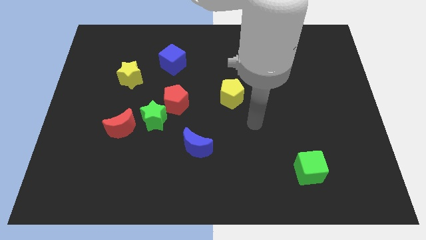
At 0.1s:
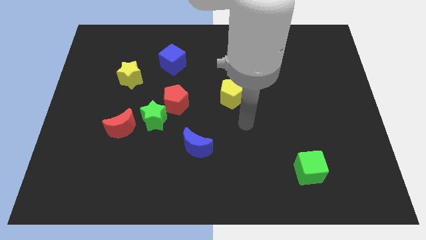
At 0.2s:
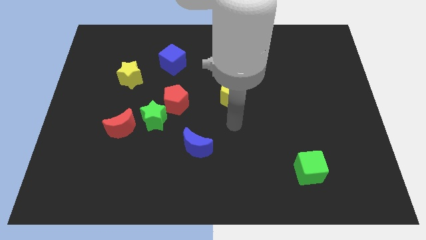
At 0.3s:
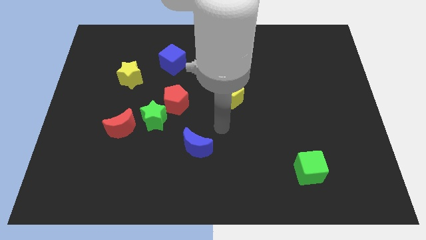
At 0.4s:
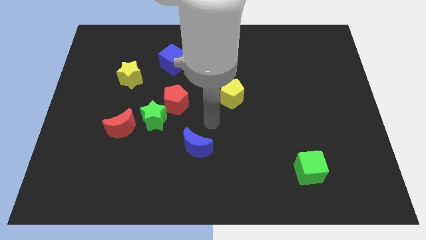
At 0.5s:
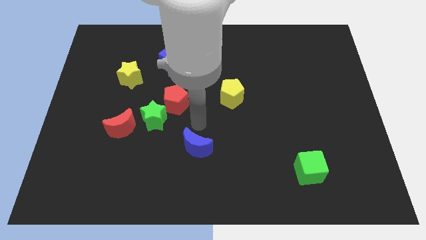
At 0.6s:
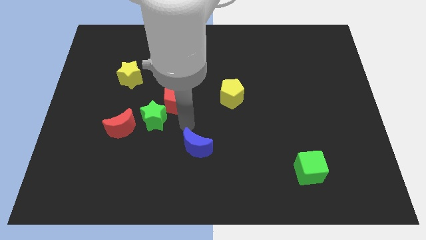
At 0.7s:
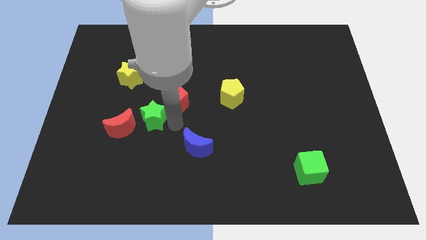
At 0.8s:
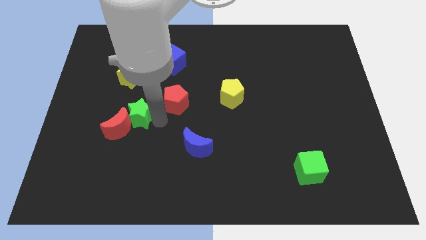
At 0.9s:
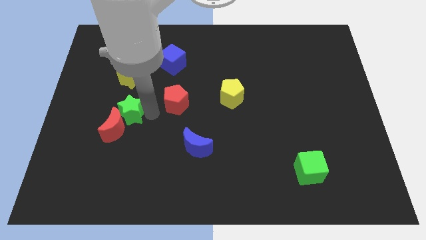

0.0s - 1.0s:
pull the red pentagon apart from the green star

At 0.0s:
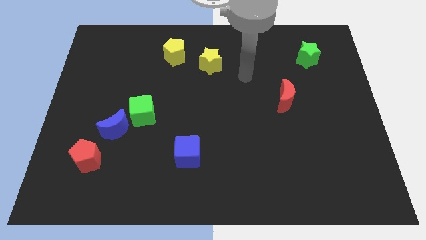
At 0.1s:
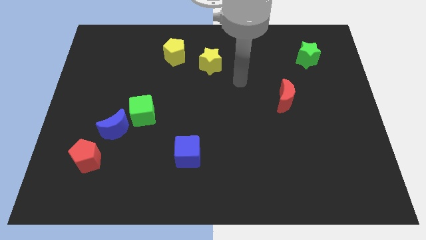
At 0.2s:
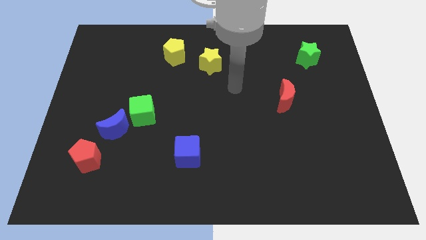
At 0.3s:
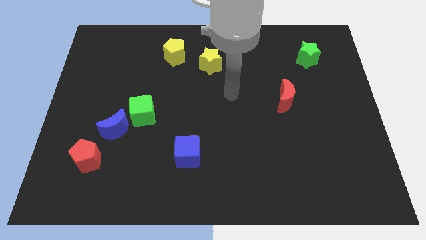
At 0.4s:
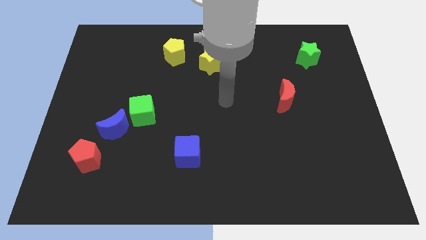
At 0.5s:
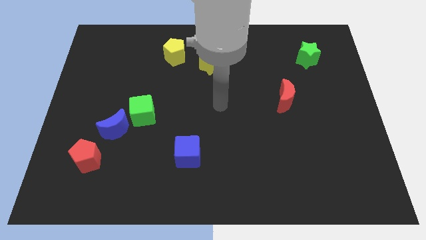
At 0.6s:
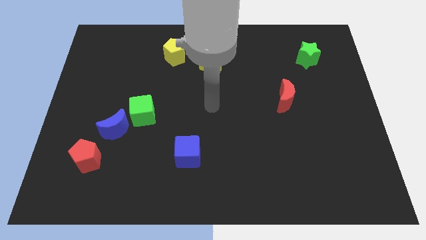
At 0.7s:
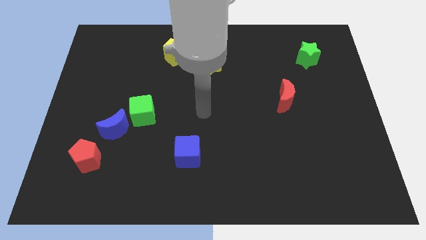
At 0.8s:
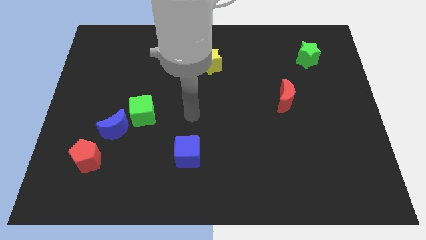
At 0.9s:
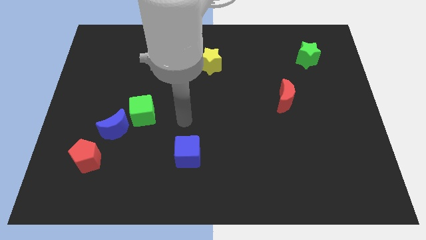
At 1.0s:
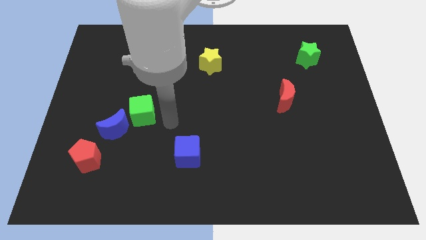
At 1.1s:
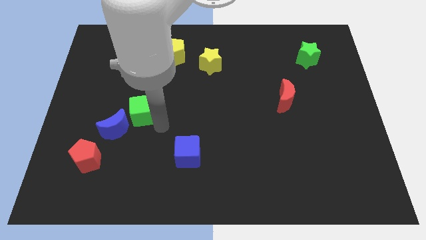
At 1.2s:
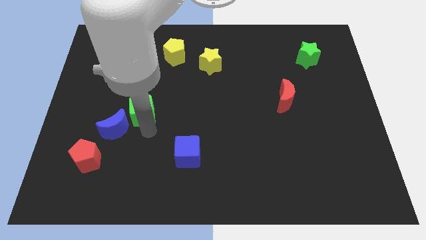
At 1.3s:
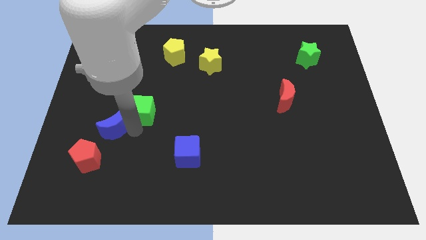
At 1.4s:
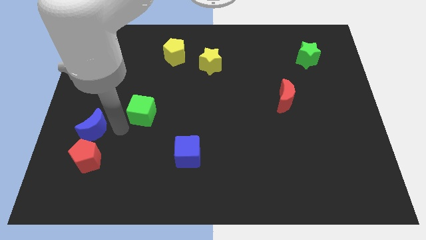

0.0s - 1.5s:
move the green cube away from the blue moon

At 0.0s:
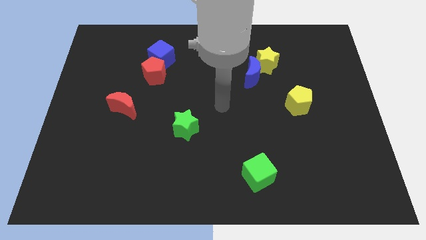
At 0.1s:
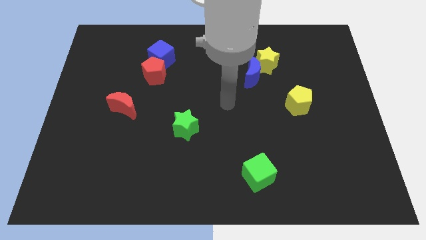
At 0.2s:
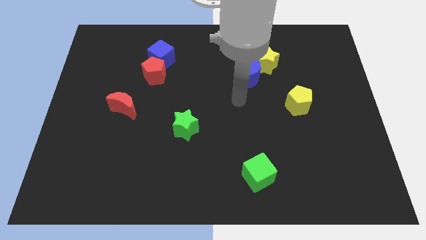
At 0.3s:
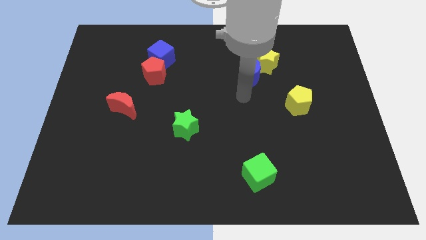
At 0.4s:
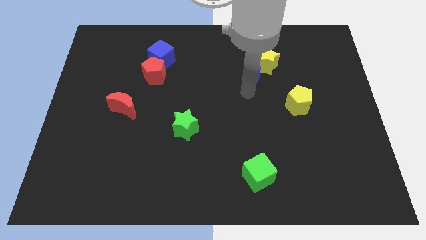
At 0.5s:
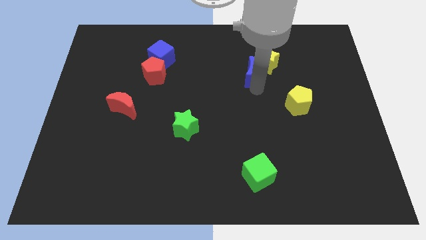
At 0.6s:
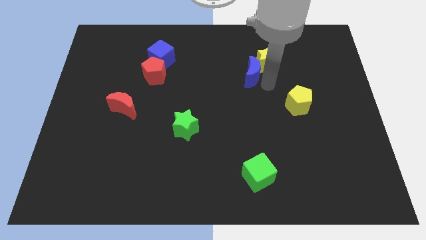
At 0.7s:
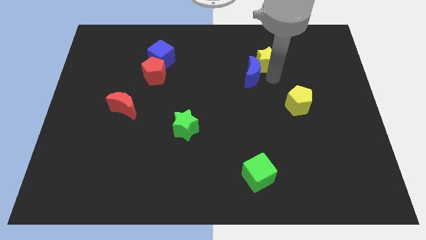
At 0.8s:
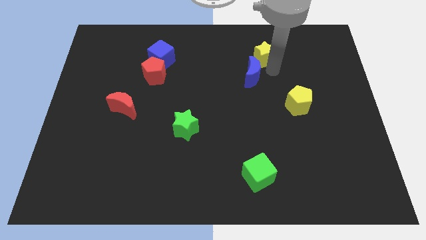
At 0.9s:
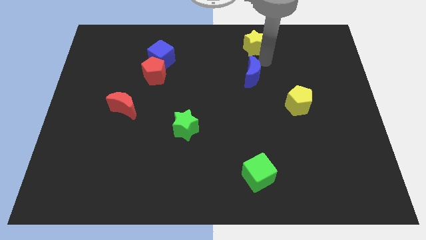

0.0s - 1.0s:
move the blue moon away from the yellow star

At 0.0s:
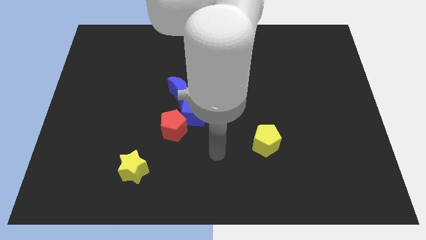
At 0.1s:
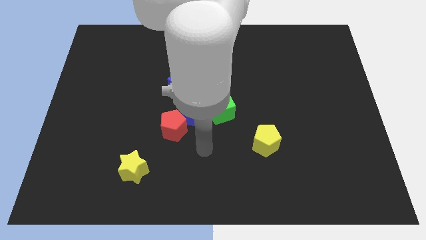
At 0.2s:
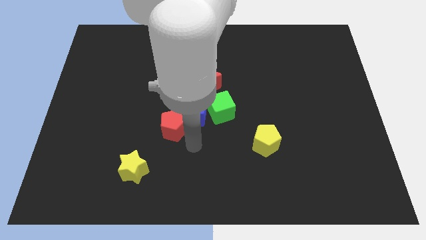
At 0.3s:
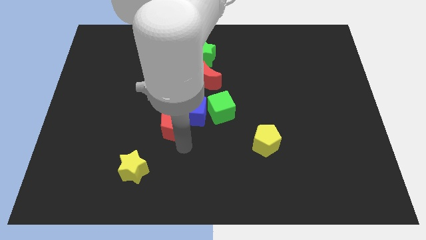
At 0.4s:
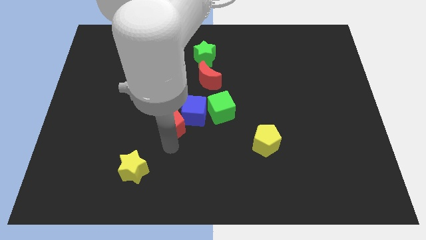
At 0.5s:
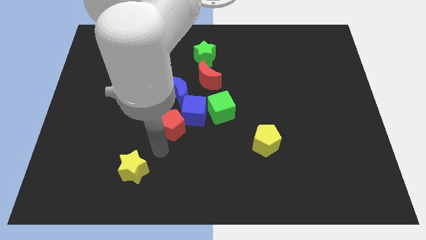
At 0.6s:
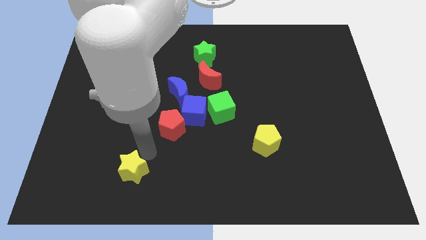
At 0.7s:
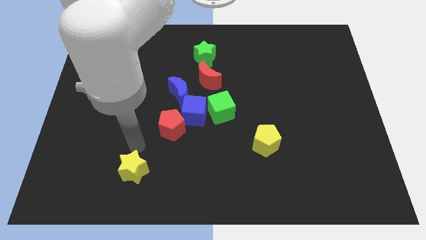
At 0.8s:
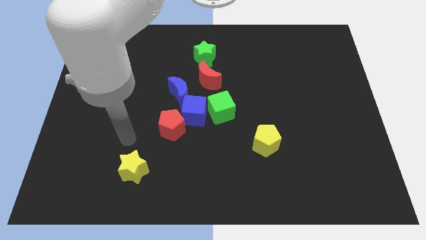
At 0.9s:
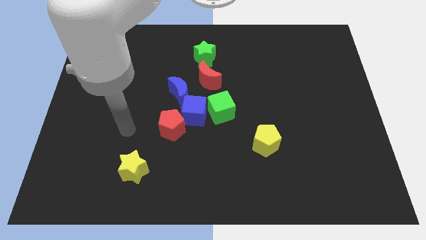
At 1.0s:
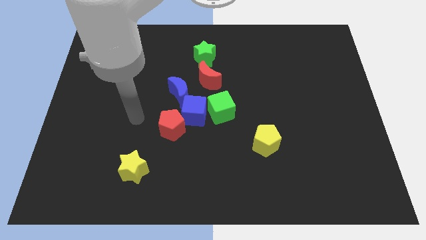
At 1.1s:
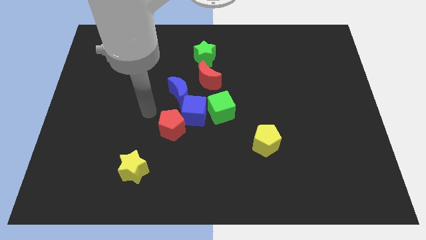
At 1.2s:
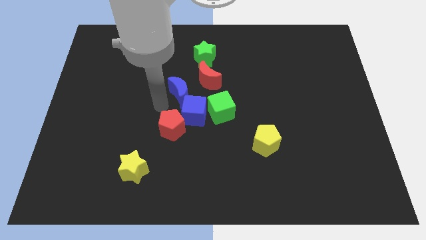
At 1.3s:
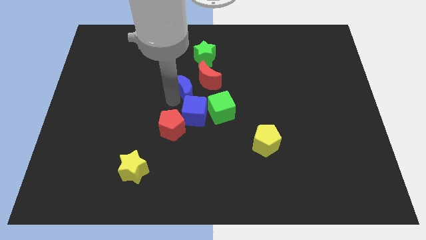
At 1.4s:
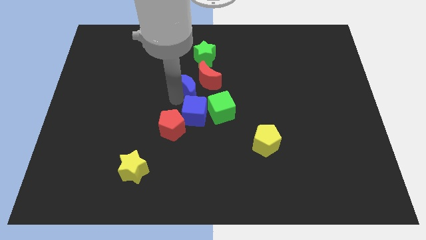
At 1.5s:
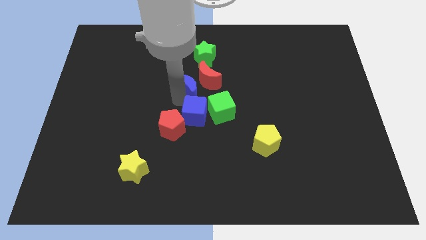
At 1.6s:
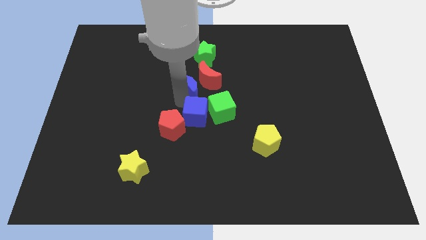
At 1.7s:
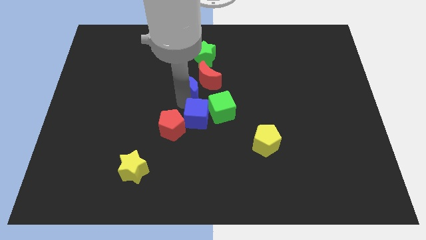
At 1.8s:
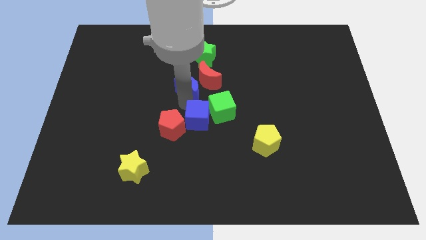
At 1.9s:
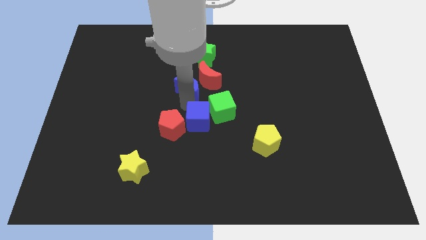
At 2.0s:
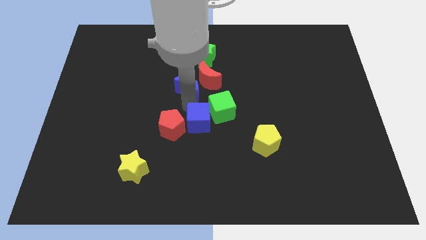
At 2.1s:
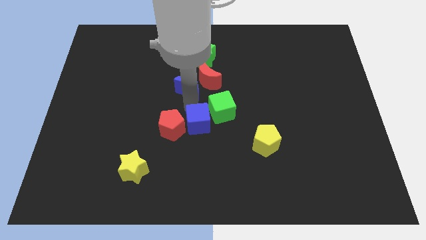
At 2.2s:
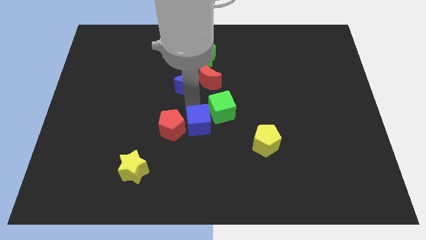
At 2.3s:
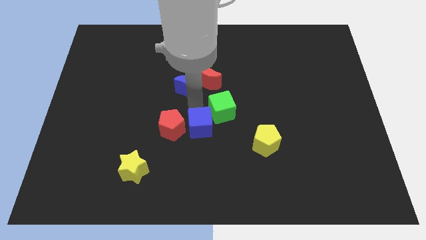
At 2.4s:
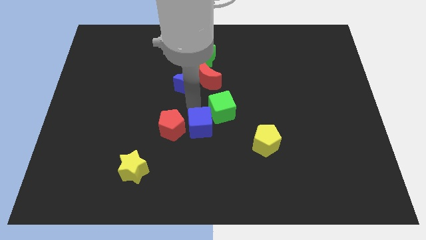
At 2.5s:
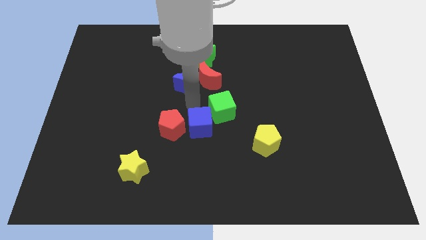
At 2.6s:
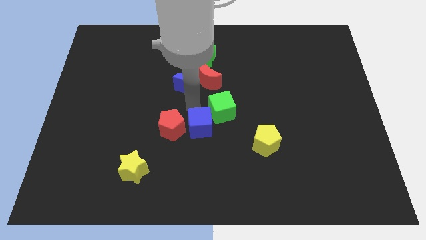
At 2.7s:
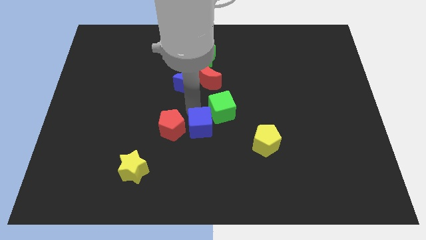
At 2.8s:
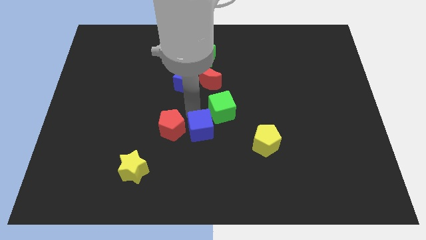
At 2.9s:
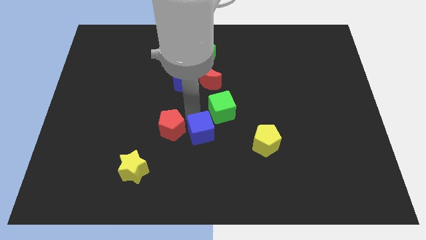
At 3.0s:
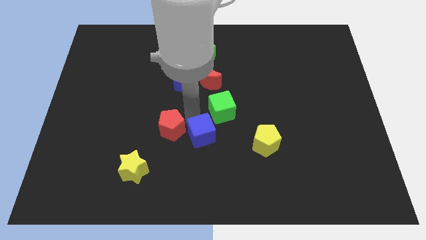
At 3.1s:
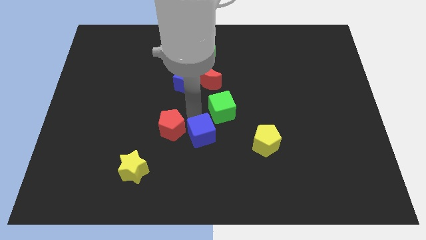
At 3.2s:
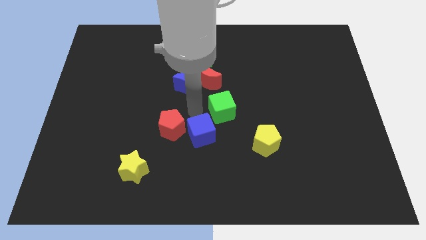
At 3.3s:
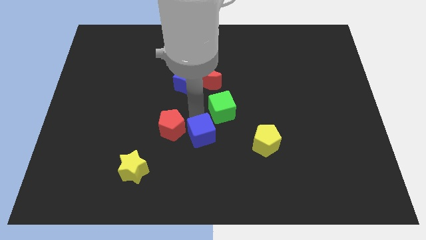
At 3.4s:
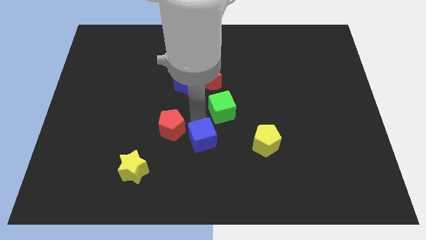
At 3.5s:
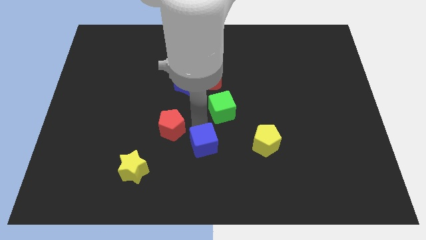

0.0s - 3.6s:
separate the blue cube from the clump

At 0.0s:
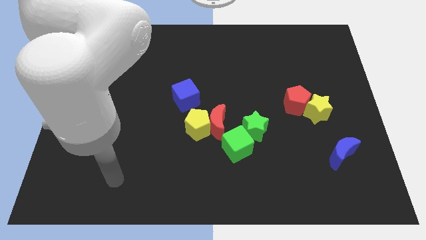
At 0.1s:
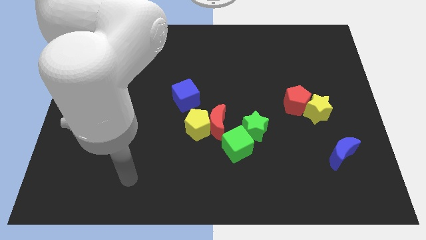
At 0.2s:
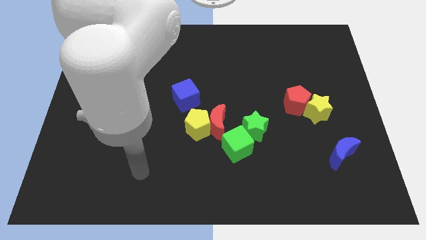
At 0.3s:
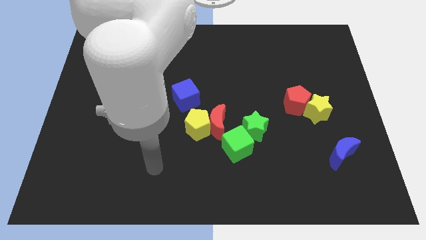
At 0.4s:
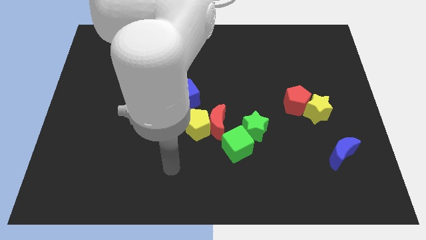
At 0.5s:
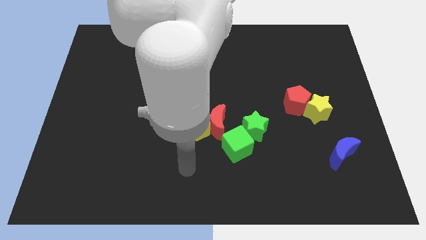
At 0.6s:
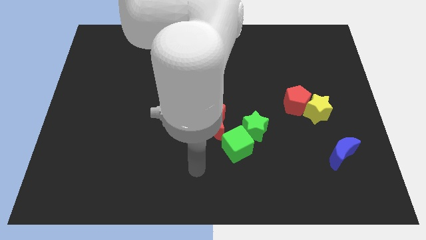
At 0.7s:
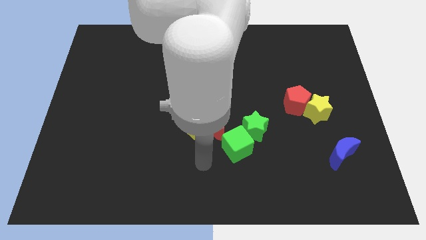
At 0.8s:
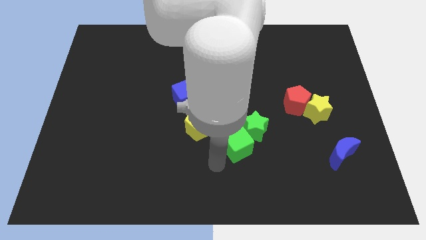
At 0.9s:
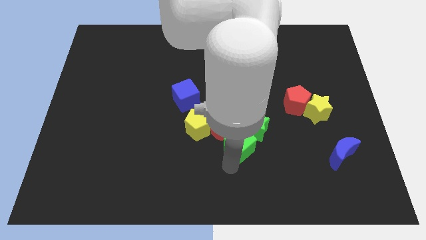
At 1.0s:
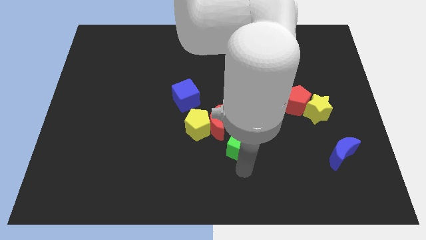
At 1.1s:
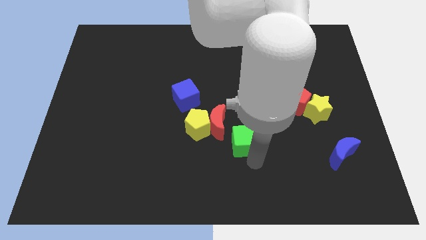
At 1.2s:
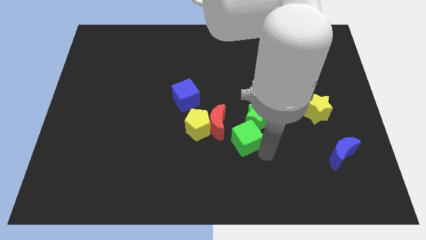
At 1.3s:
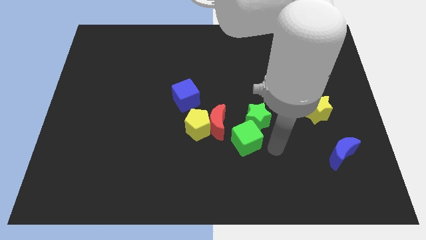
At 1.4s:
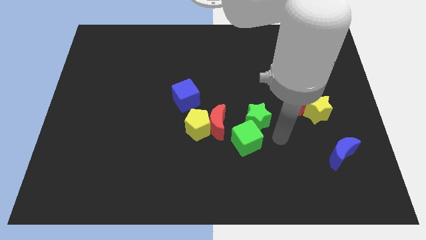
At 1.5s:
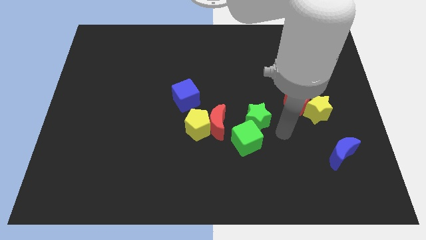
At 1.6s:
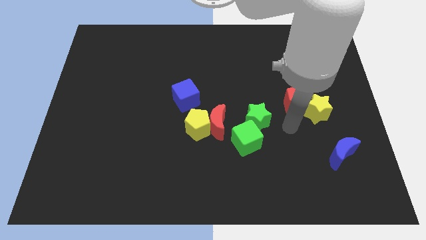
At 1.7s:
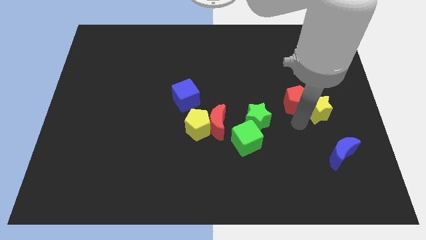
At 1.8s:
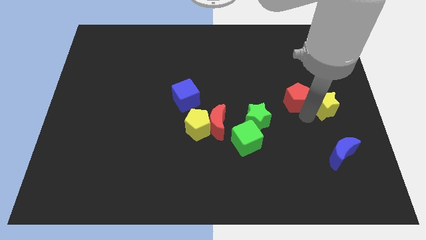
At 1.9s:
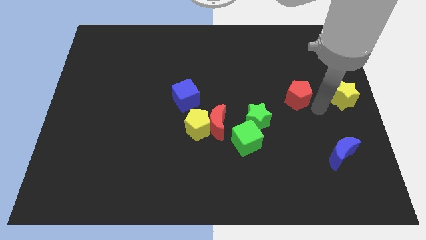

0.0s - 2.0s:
separate the red pentagon from the yellow star

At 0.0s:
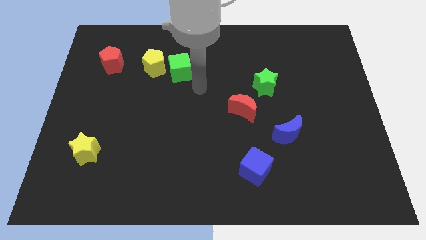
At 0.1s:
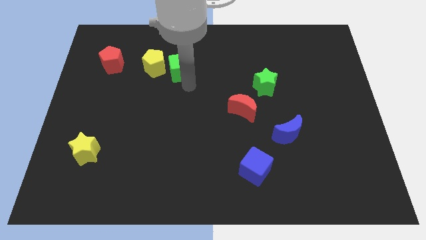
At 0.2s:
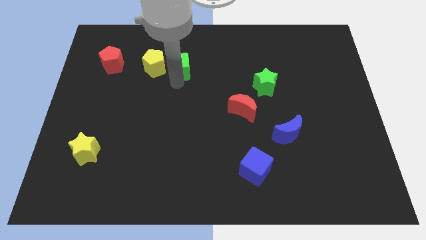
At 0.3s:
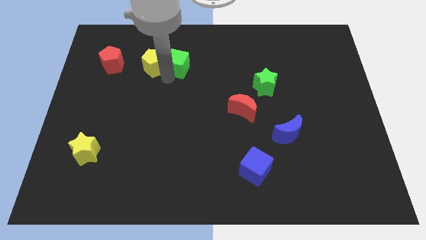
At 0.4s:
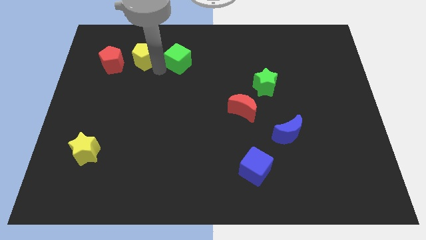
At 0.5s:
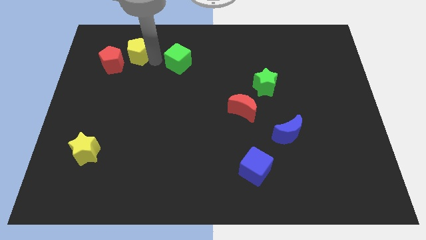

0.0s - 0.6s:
move the green cube away from the yellow pentagon
